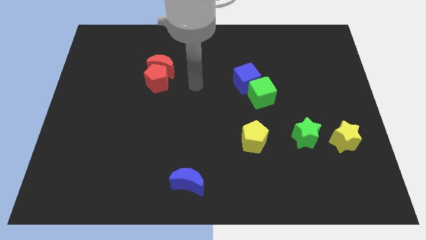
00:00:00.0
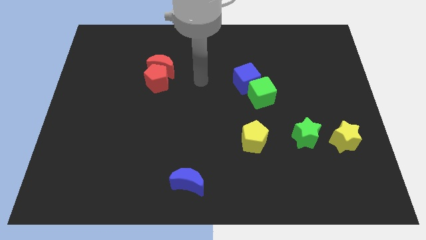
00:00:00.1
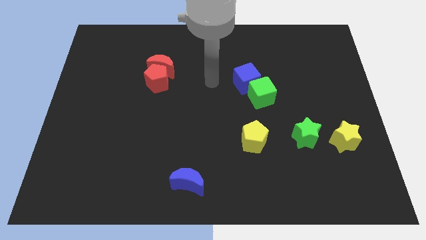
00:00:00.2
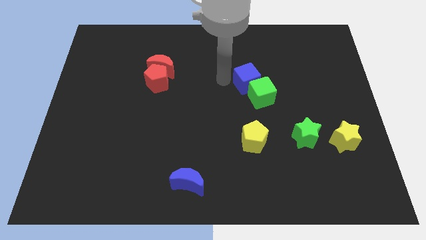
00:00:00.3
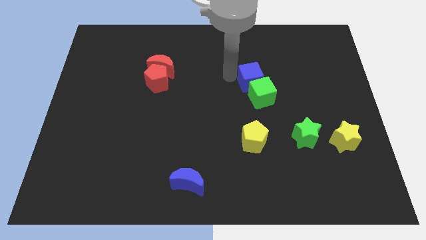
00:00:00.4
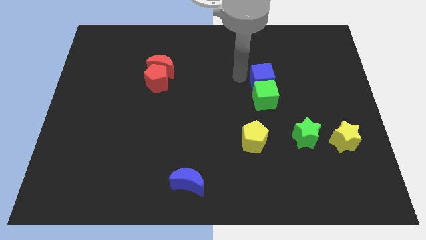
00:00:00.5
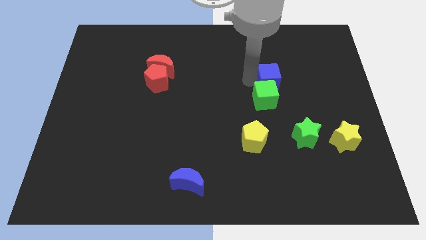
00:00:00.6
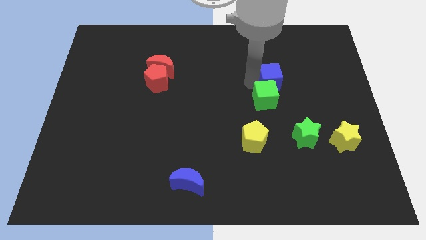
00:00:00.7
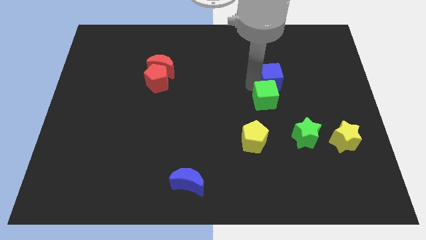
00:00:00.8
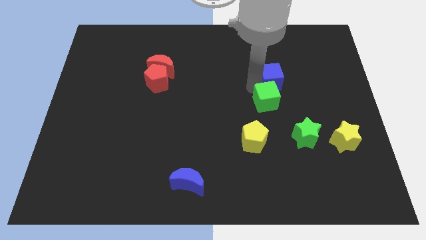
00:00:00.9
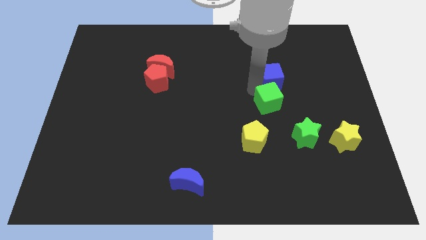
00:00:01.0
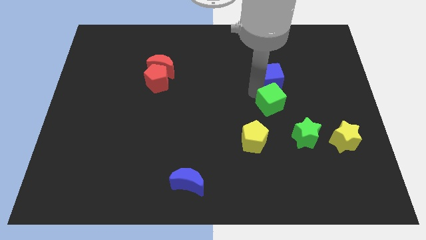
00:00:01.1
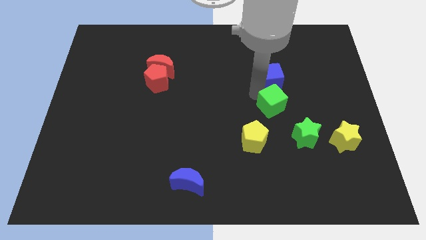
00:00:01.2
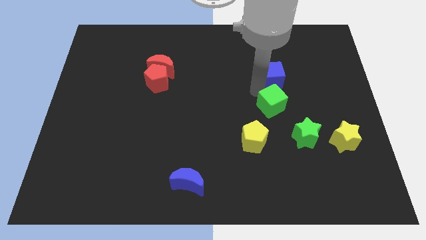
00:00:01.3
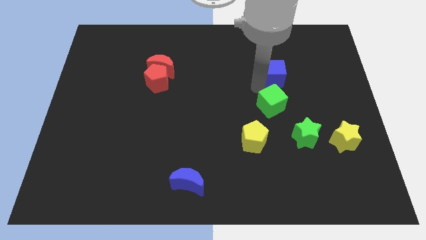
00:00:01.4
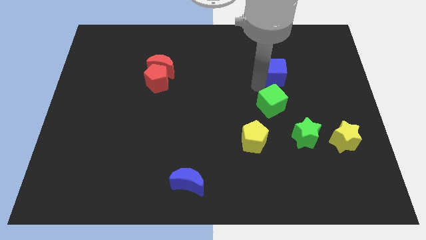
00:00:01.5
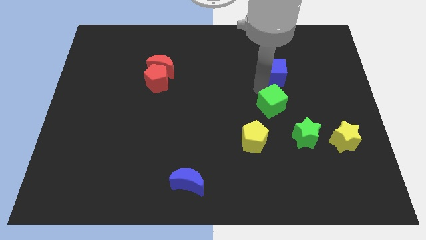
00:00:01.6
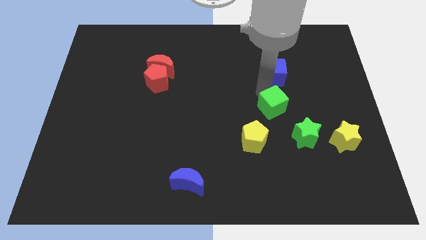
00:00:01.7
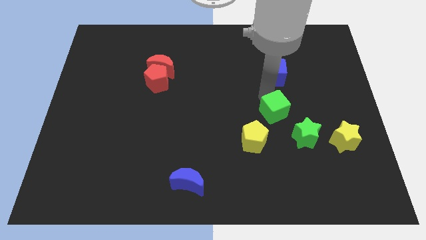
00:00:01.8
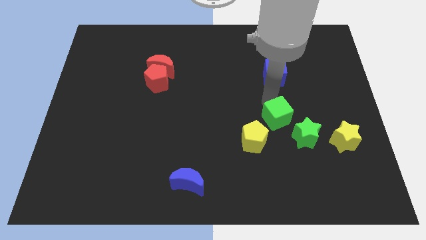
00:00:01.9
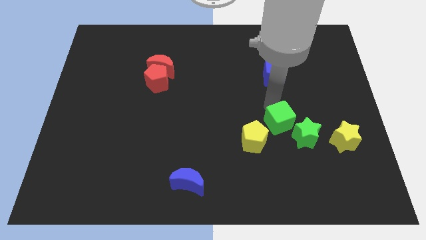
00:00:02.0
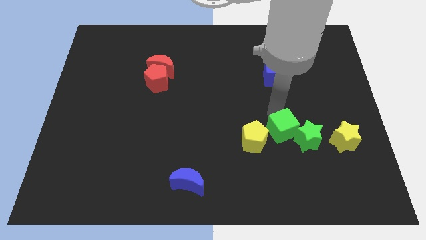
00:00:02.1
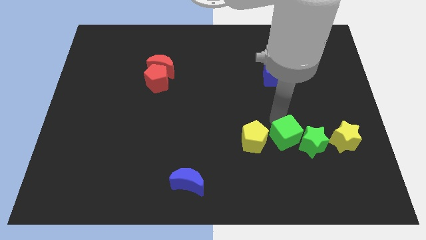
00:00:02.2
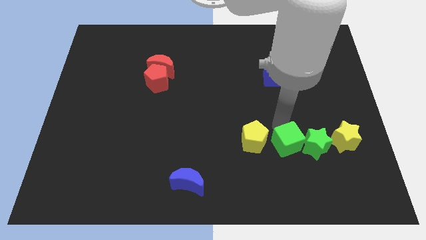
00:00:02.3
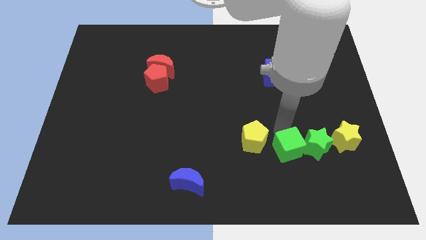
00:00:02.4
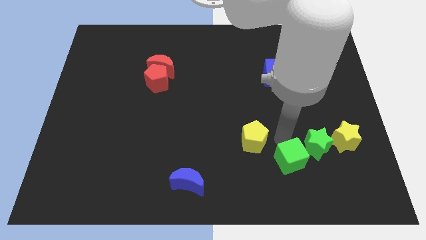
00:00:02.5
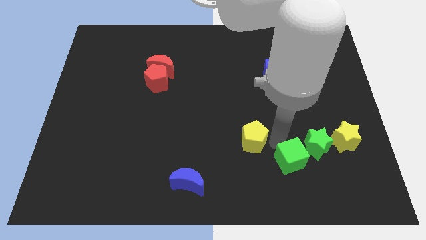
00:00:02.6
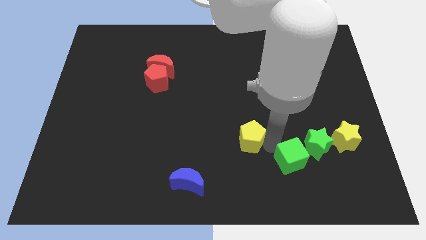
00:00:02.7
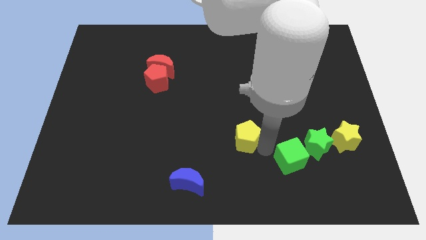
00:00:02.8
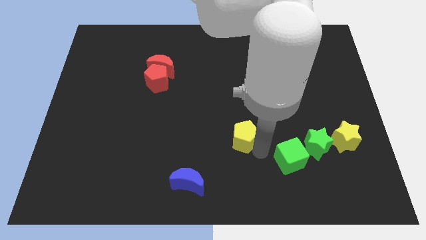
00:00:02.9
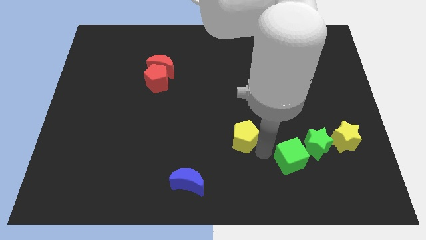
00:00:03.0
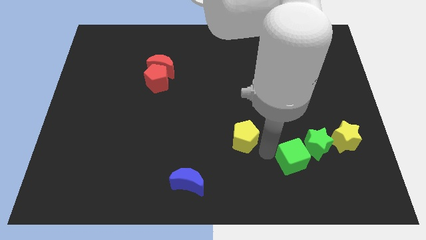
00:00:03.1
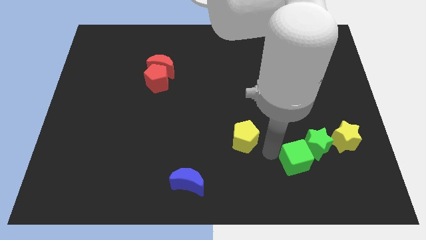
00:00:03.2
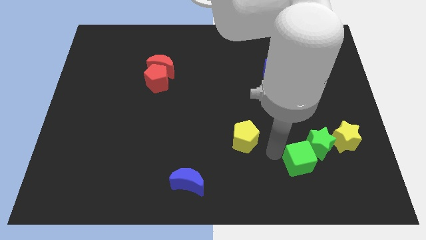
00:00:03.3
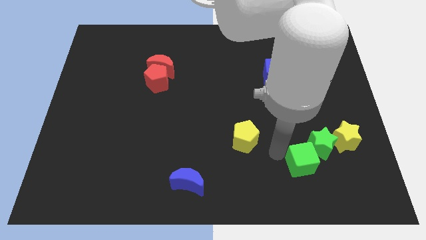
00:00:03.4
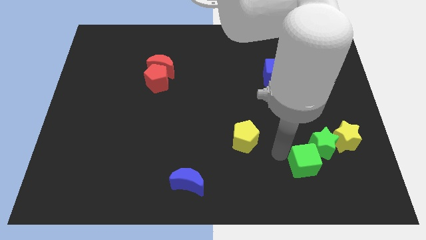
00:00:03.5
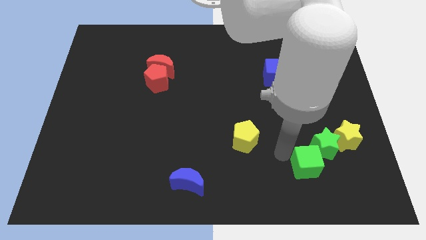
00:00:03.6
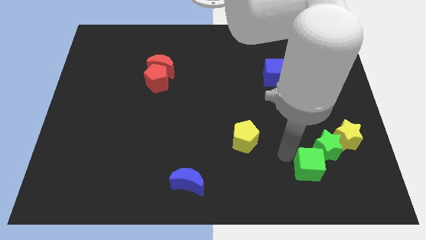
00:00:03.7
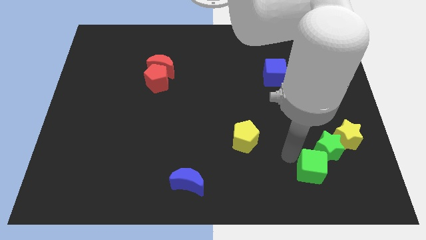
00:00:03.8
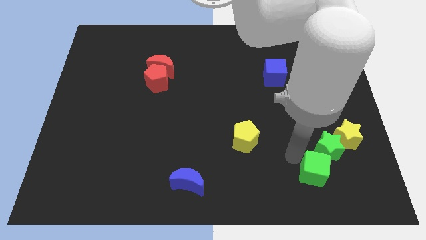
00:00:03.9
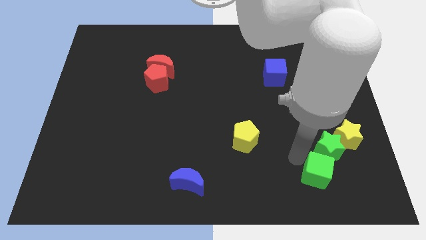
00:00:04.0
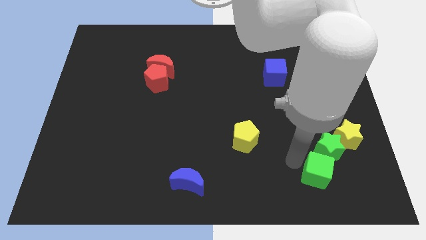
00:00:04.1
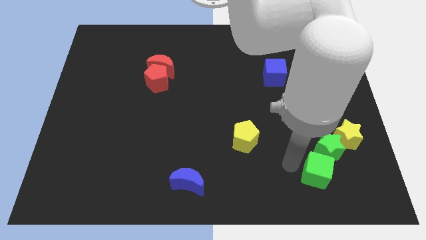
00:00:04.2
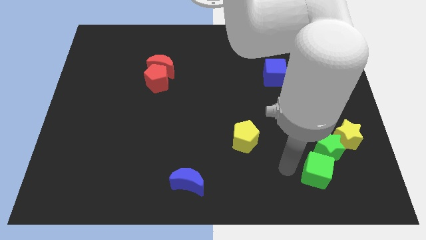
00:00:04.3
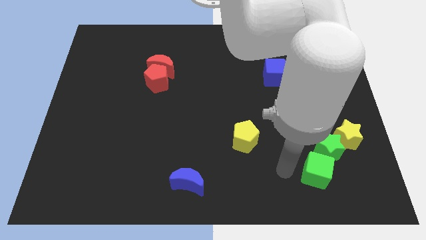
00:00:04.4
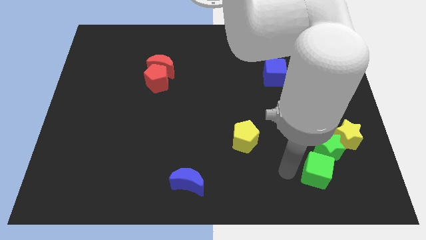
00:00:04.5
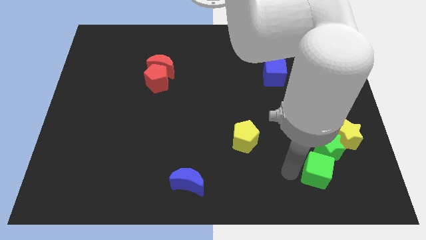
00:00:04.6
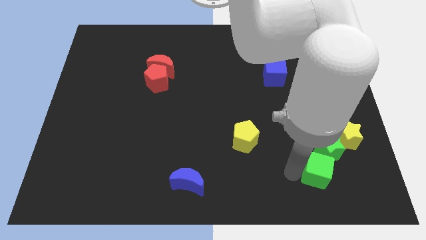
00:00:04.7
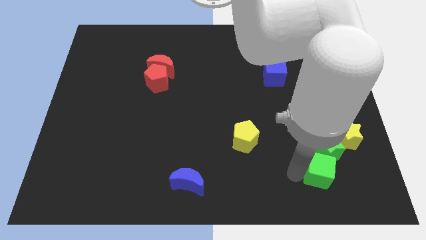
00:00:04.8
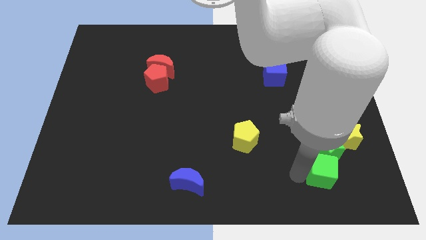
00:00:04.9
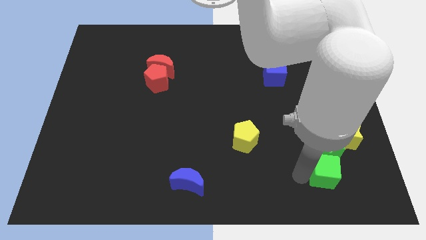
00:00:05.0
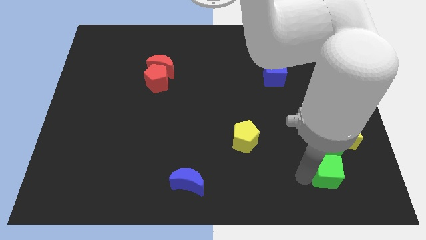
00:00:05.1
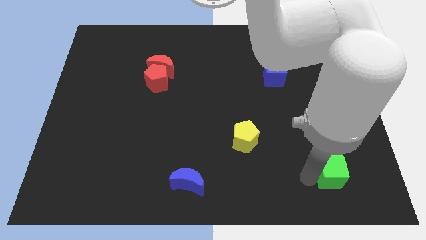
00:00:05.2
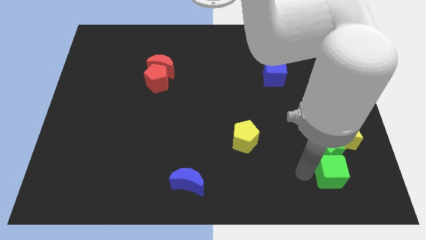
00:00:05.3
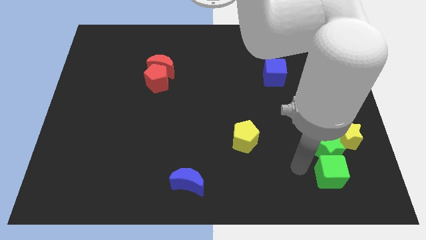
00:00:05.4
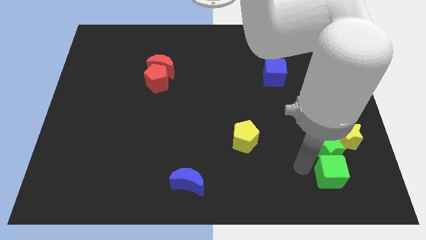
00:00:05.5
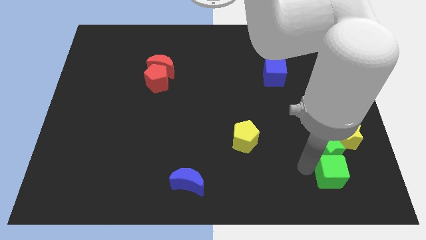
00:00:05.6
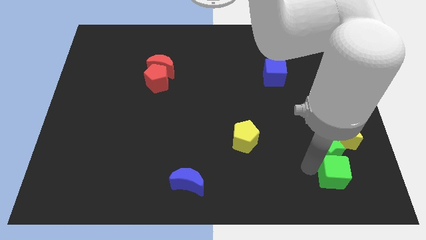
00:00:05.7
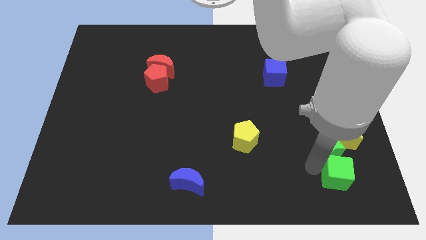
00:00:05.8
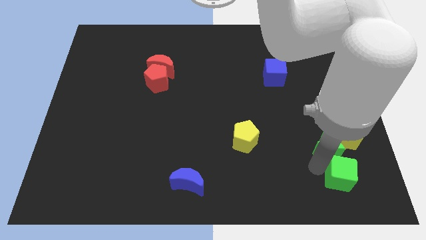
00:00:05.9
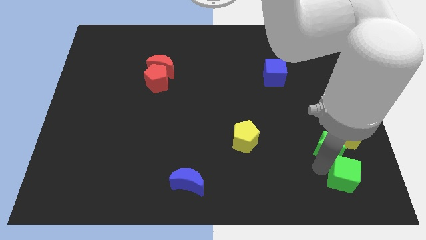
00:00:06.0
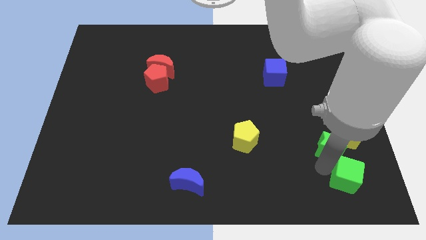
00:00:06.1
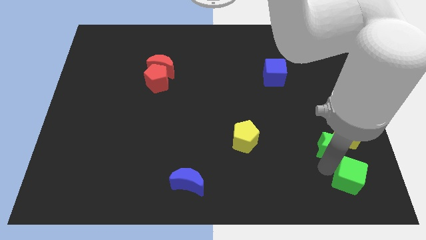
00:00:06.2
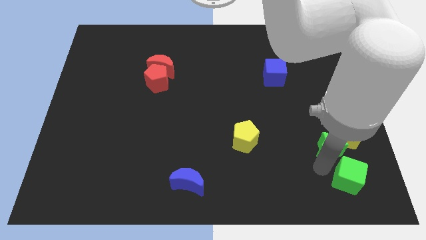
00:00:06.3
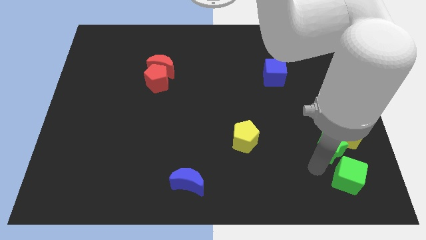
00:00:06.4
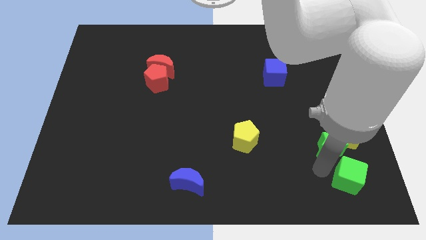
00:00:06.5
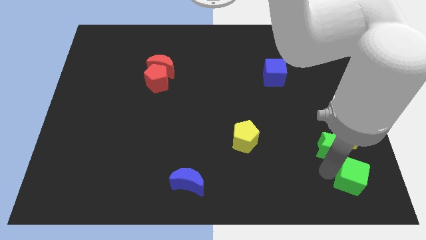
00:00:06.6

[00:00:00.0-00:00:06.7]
put the green cube to the bottom right corner
